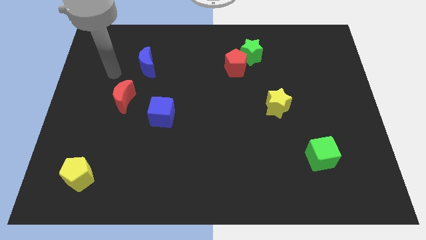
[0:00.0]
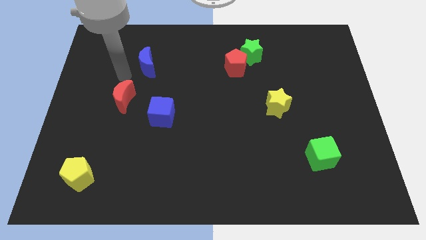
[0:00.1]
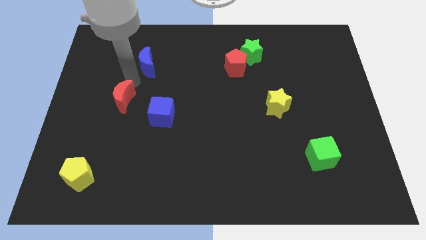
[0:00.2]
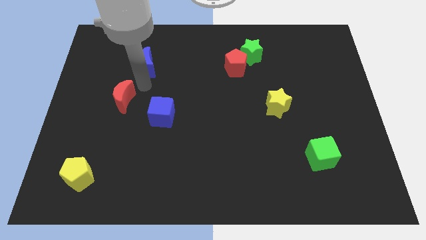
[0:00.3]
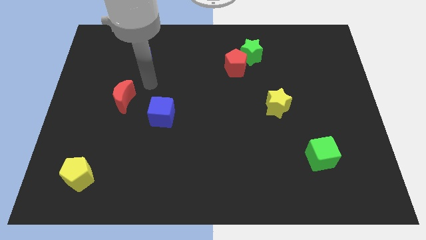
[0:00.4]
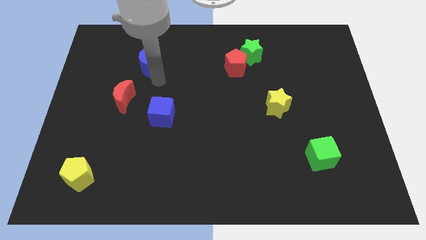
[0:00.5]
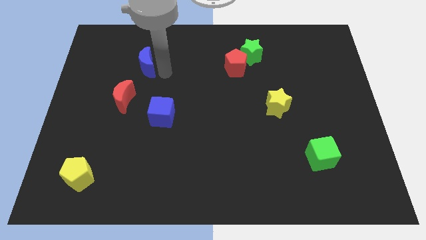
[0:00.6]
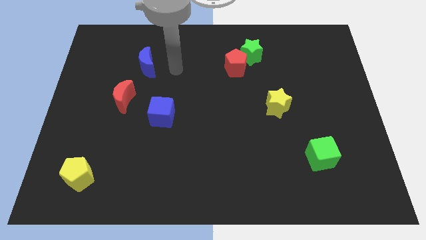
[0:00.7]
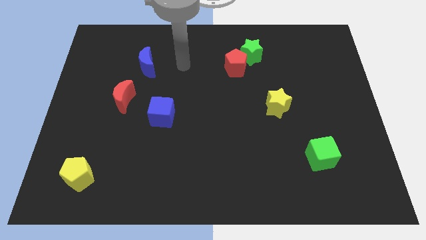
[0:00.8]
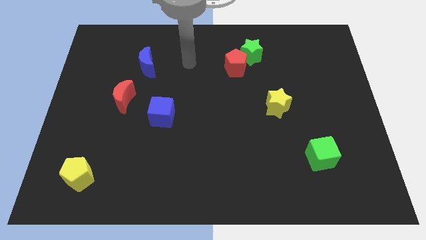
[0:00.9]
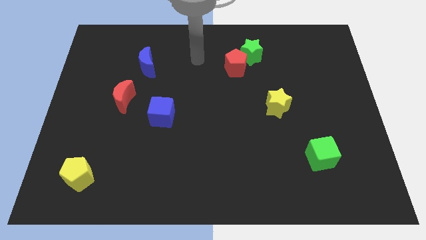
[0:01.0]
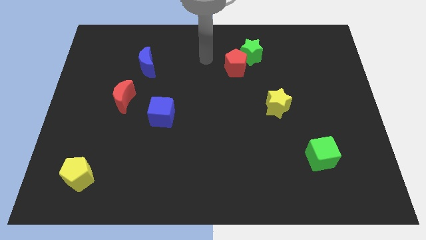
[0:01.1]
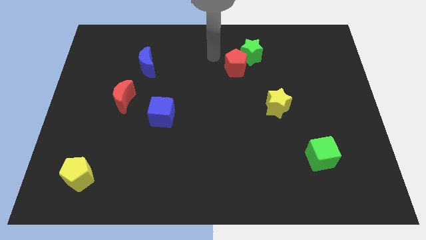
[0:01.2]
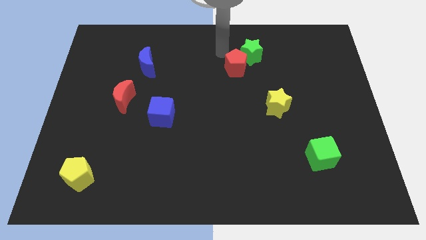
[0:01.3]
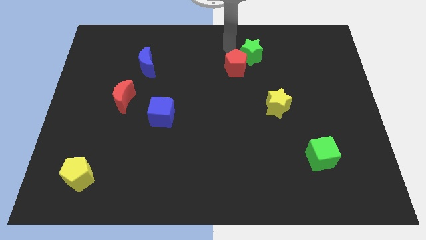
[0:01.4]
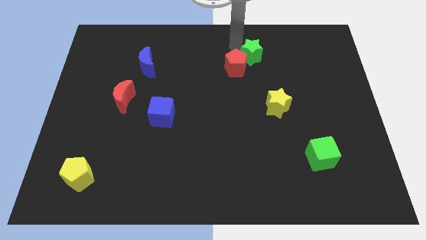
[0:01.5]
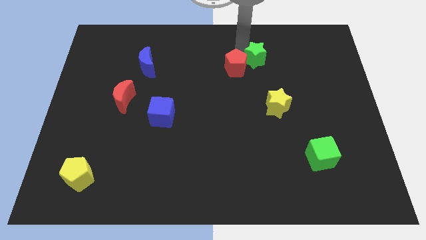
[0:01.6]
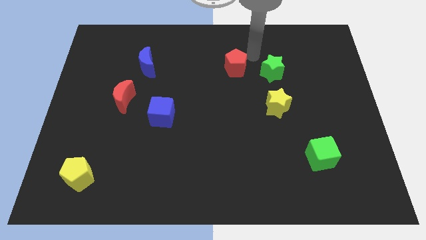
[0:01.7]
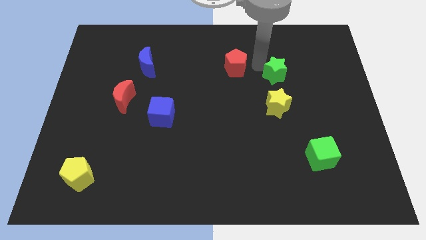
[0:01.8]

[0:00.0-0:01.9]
pull the red pentagon apart from the green star

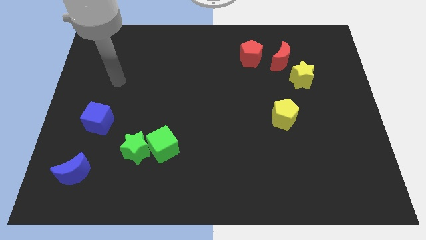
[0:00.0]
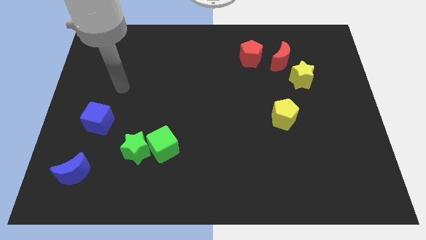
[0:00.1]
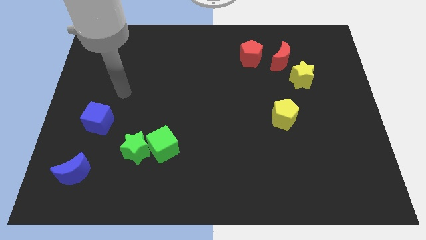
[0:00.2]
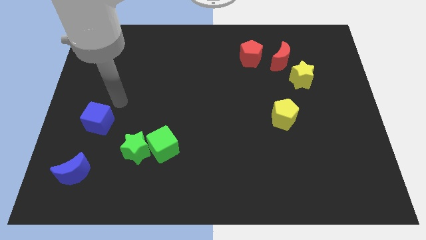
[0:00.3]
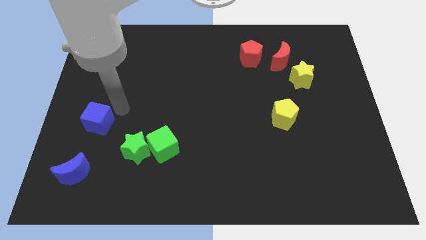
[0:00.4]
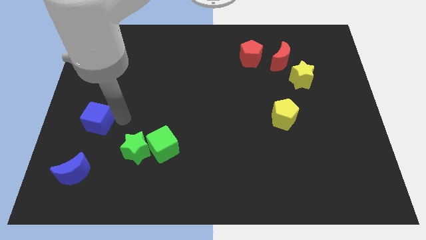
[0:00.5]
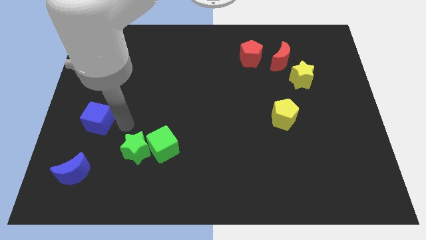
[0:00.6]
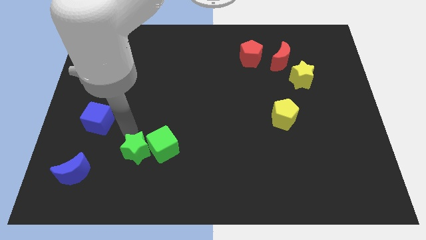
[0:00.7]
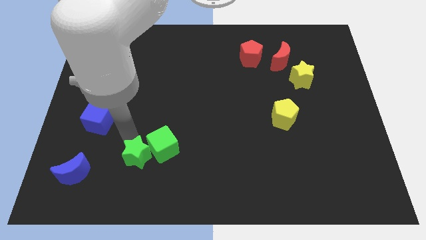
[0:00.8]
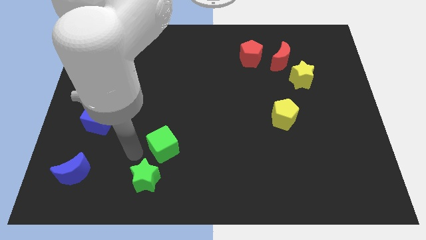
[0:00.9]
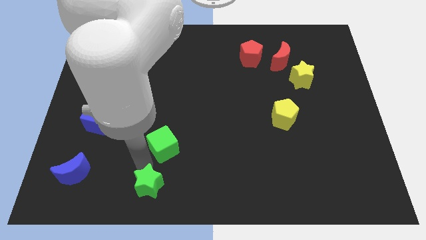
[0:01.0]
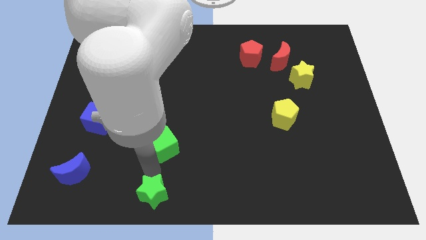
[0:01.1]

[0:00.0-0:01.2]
separate the green cube from the green star

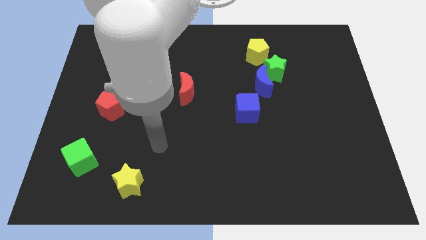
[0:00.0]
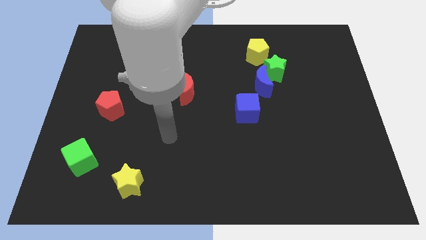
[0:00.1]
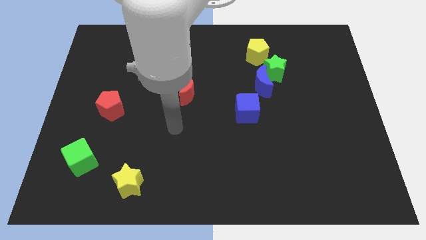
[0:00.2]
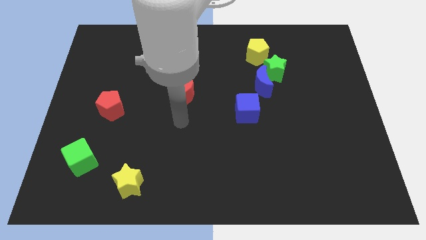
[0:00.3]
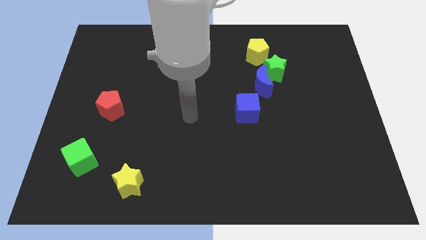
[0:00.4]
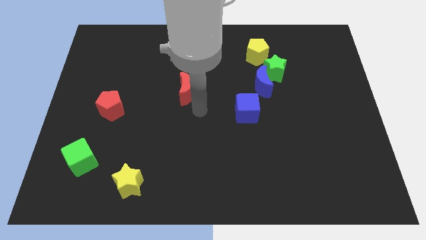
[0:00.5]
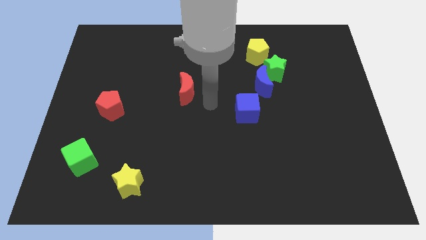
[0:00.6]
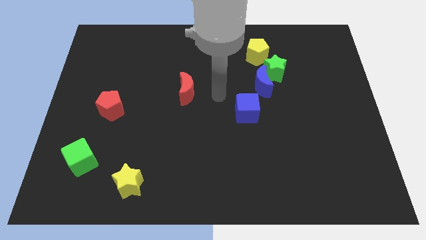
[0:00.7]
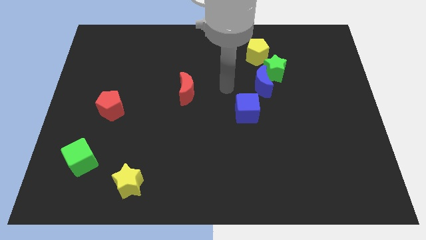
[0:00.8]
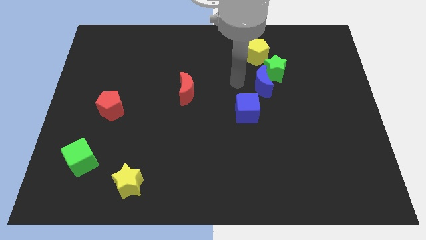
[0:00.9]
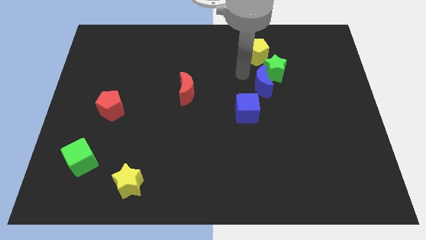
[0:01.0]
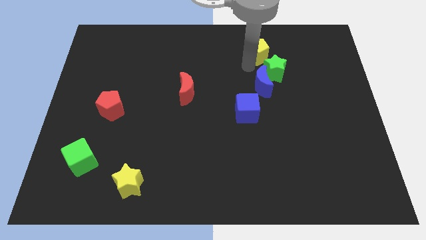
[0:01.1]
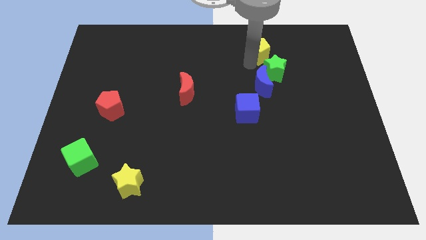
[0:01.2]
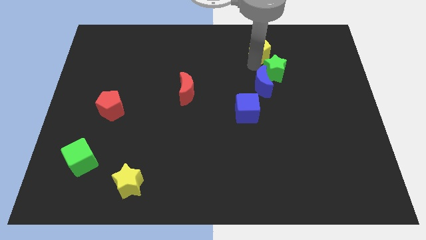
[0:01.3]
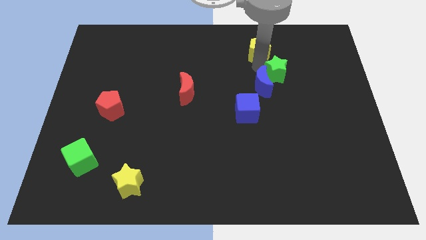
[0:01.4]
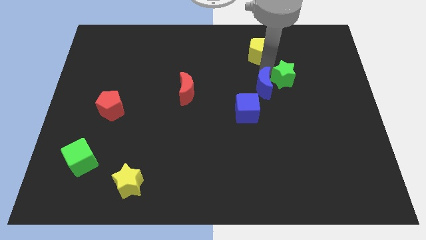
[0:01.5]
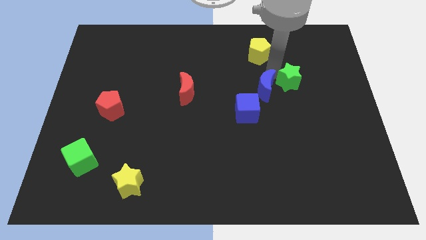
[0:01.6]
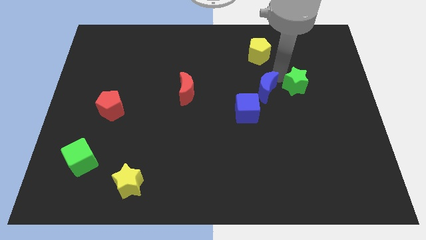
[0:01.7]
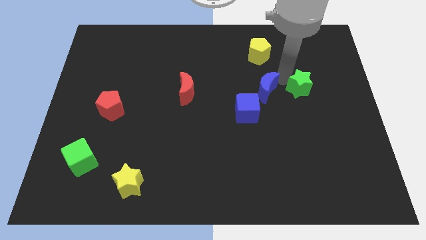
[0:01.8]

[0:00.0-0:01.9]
pull the green star apart from the blue moon and yellow pentagon

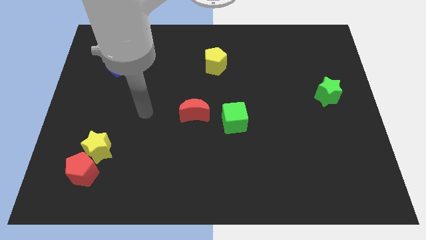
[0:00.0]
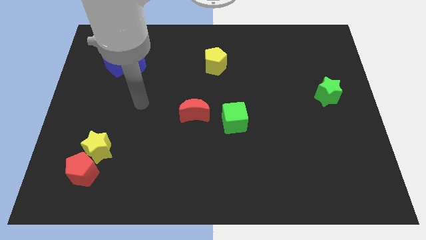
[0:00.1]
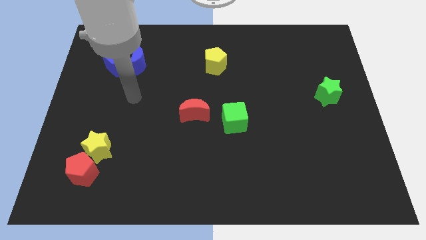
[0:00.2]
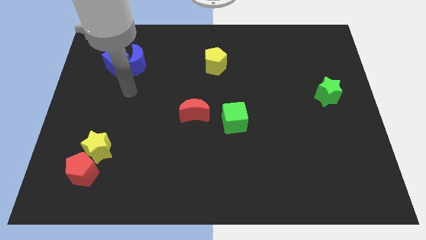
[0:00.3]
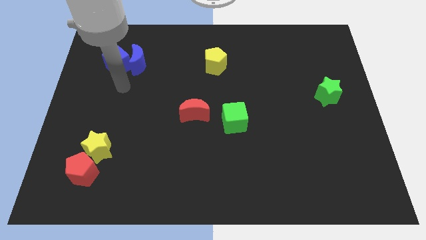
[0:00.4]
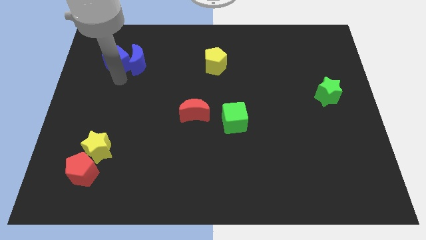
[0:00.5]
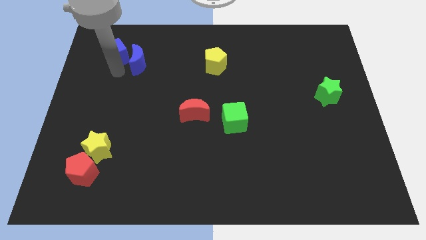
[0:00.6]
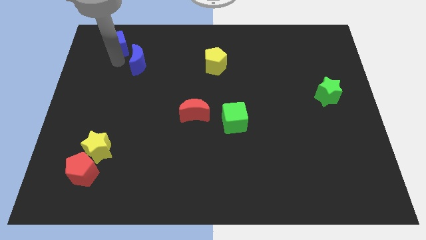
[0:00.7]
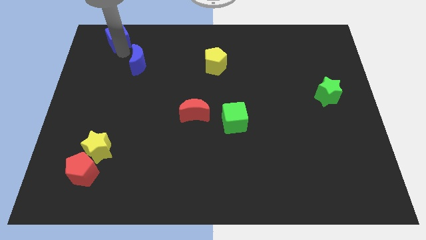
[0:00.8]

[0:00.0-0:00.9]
move the blue moon away from the blue cube

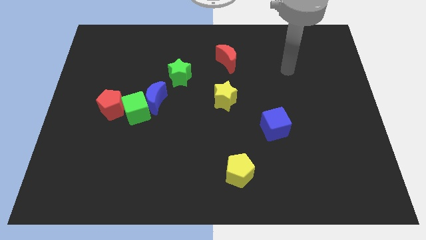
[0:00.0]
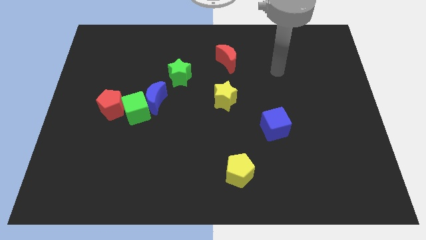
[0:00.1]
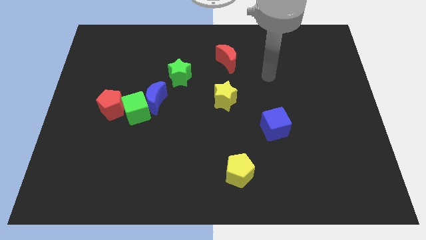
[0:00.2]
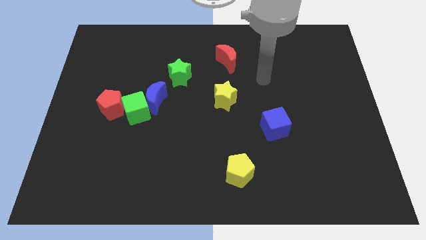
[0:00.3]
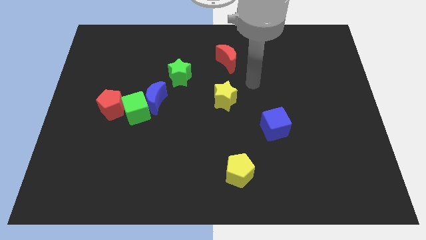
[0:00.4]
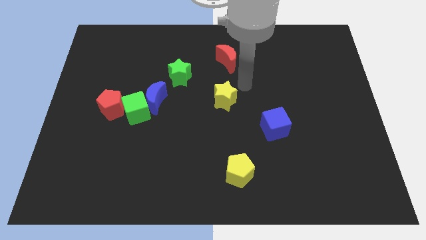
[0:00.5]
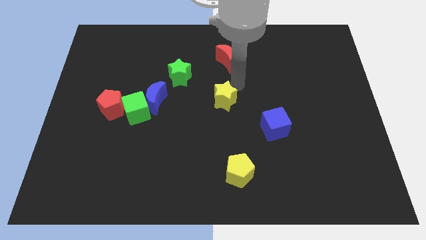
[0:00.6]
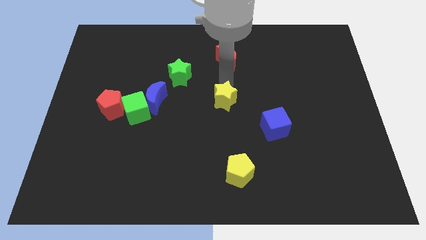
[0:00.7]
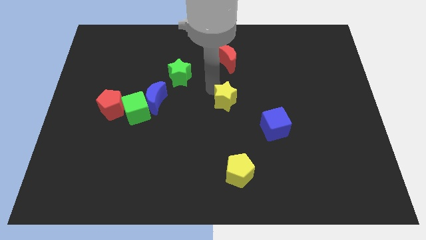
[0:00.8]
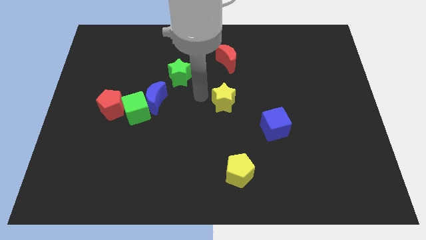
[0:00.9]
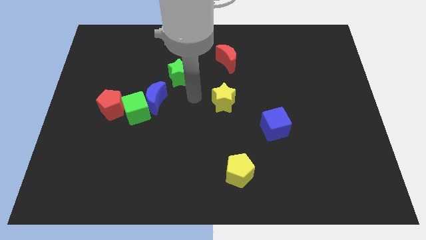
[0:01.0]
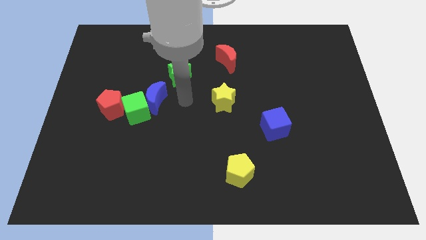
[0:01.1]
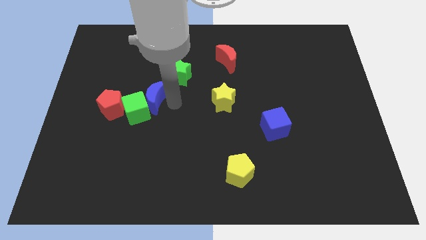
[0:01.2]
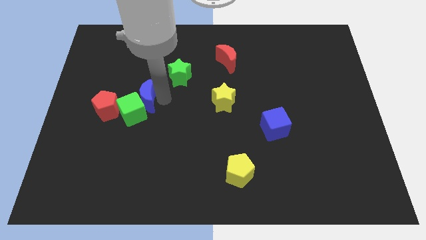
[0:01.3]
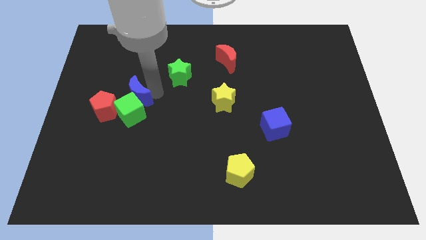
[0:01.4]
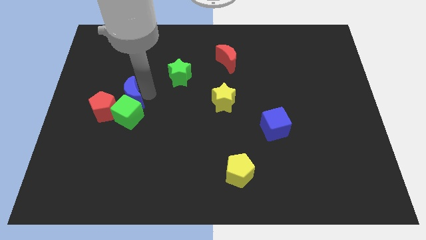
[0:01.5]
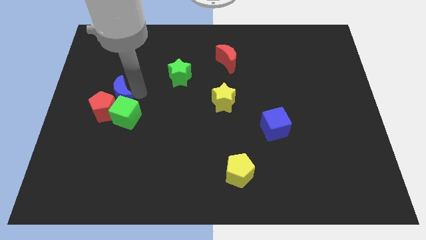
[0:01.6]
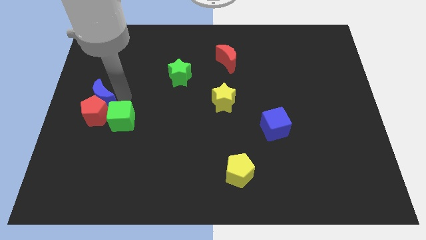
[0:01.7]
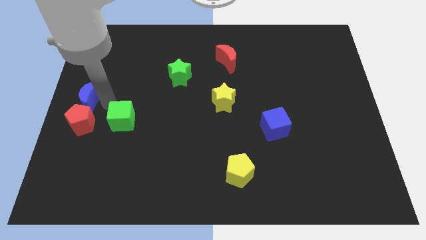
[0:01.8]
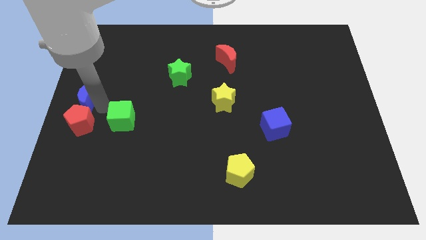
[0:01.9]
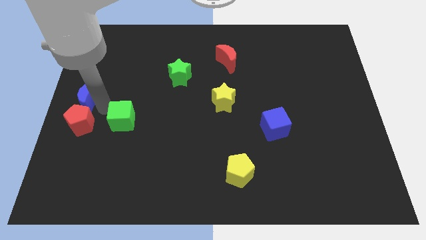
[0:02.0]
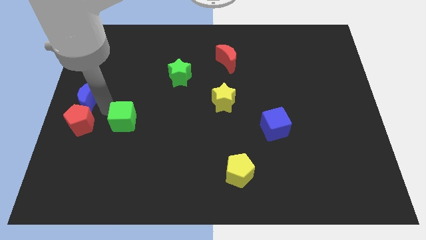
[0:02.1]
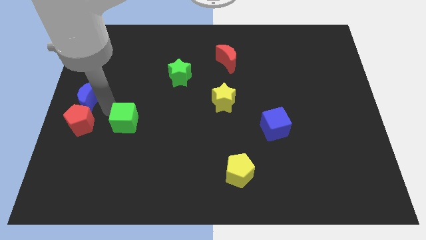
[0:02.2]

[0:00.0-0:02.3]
move the green cube away from the blue moon and red pentagon

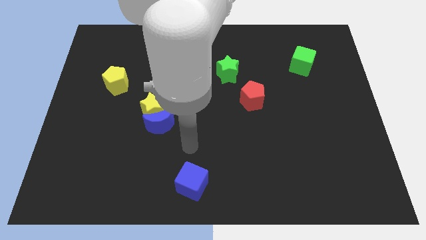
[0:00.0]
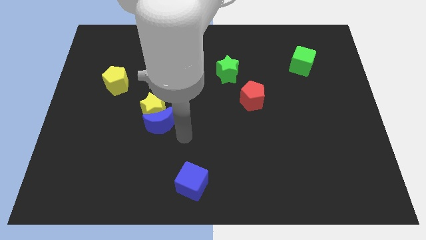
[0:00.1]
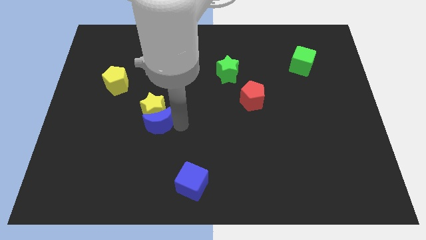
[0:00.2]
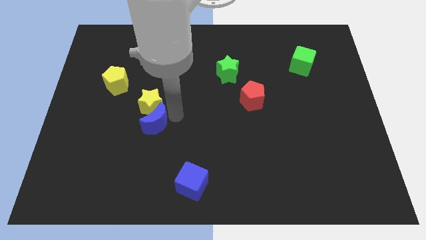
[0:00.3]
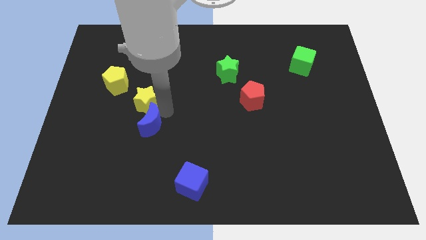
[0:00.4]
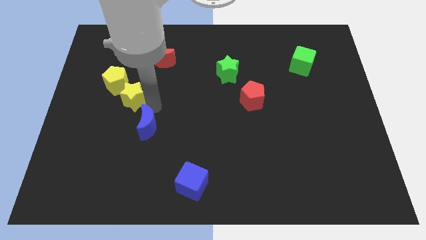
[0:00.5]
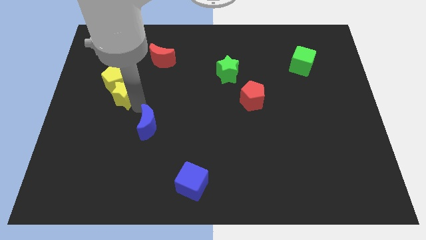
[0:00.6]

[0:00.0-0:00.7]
move the blue moon away from the yellow star

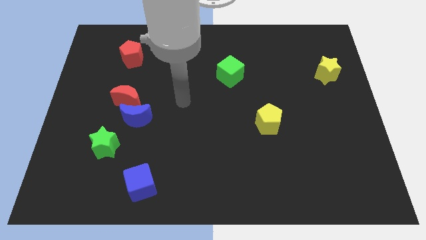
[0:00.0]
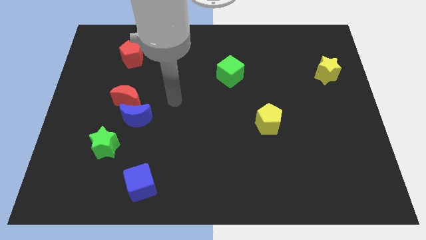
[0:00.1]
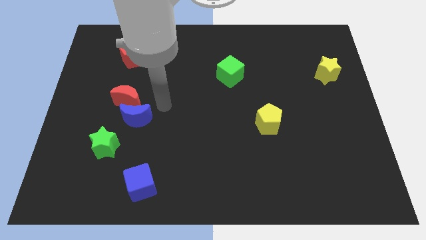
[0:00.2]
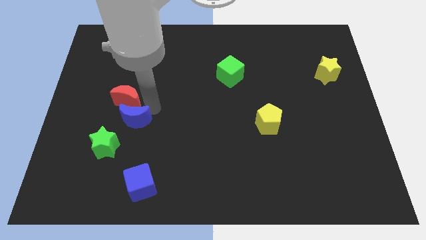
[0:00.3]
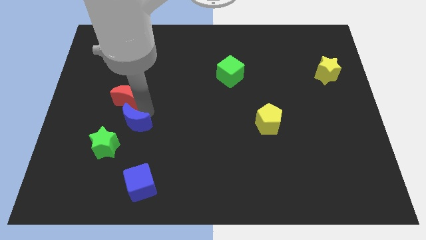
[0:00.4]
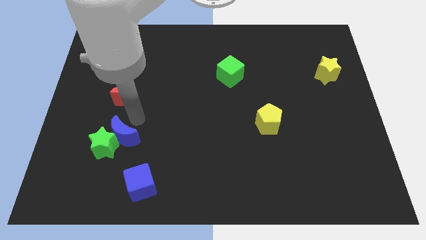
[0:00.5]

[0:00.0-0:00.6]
separate the red moon from the blue moon
